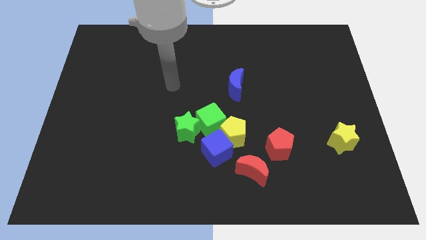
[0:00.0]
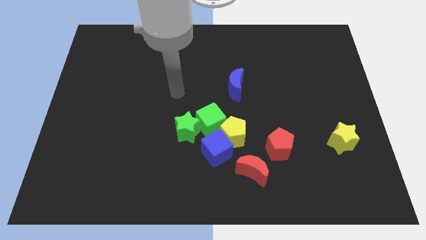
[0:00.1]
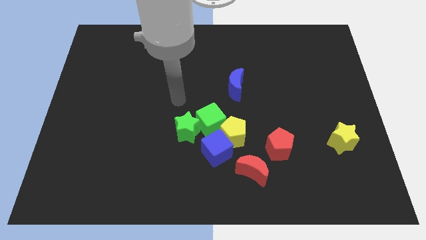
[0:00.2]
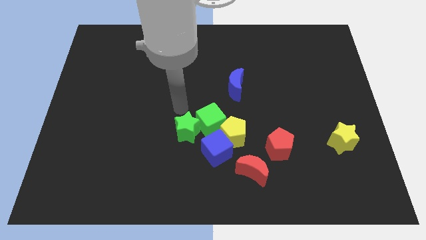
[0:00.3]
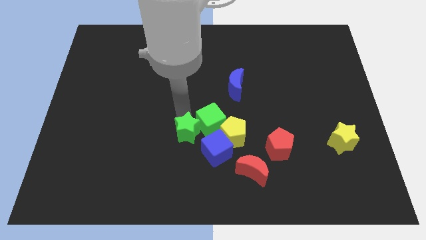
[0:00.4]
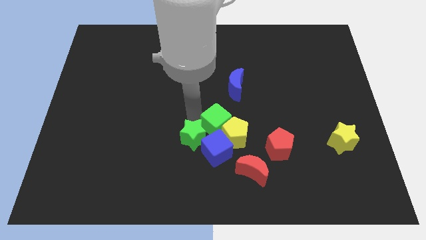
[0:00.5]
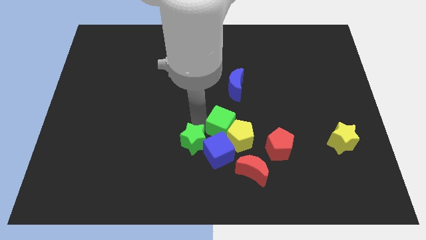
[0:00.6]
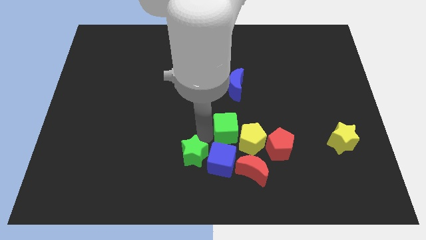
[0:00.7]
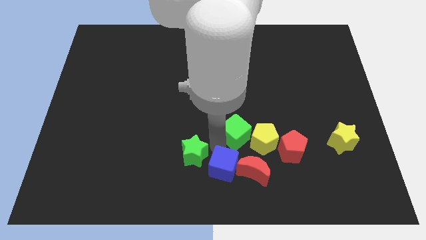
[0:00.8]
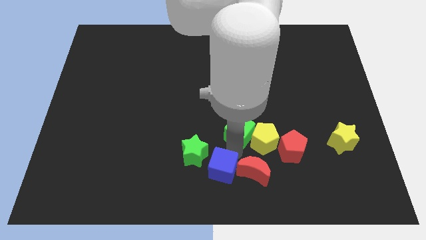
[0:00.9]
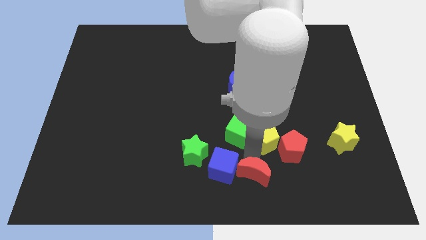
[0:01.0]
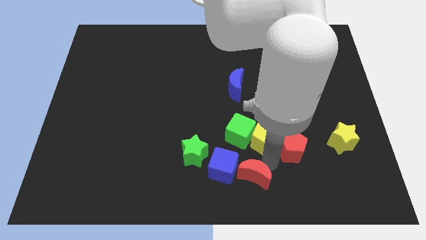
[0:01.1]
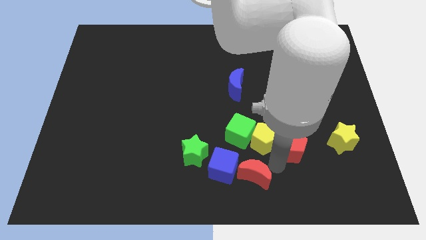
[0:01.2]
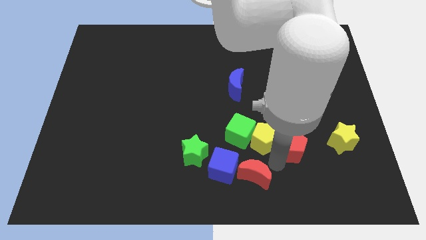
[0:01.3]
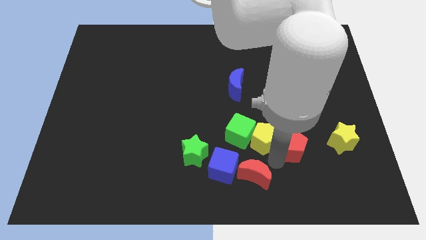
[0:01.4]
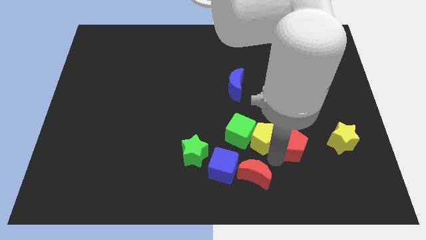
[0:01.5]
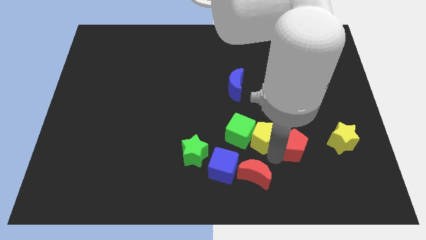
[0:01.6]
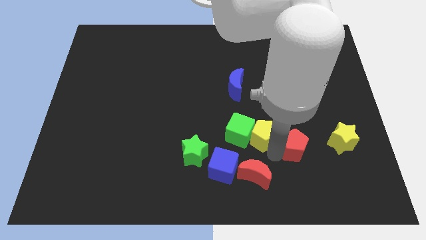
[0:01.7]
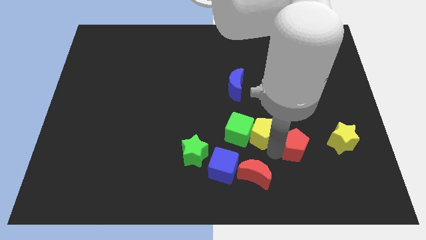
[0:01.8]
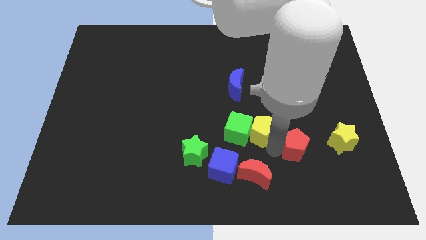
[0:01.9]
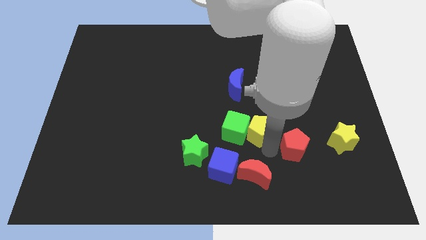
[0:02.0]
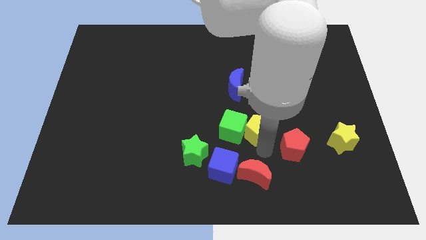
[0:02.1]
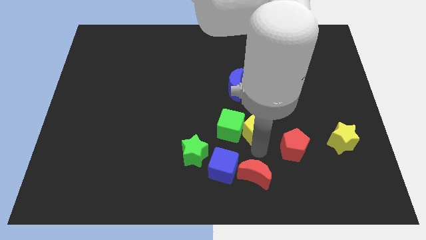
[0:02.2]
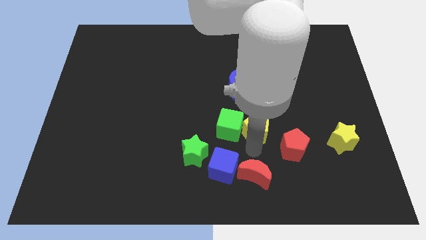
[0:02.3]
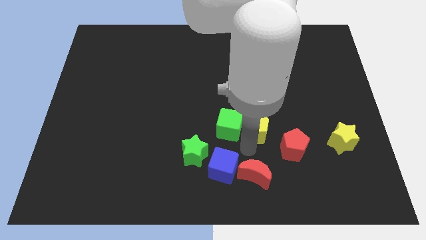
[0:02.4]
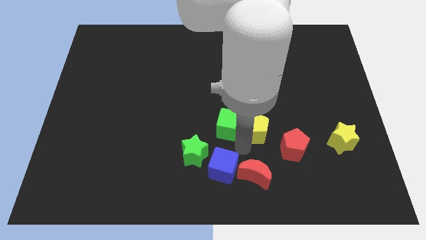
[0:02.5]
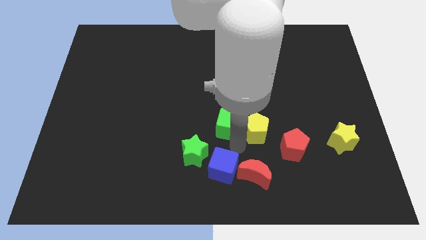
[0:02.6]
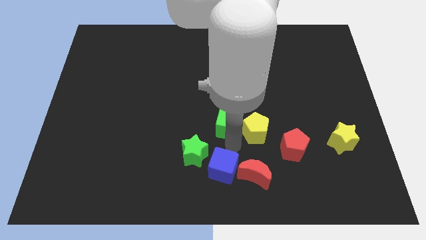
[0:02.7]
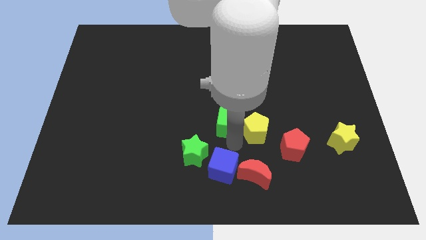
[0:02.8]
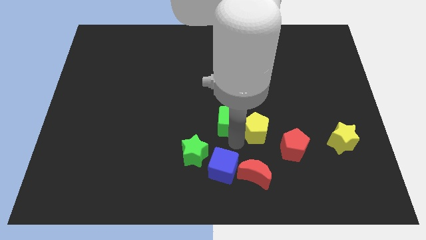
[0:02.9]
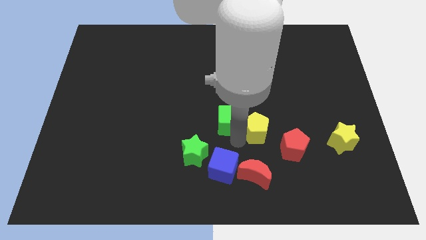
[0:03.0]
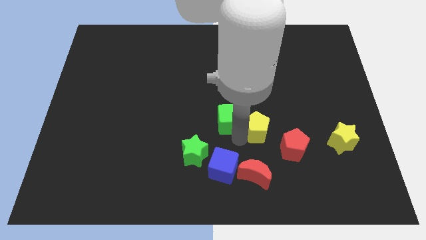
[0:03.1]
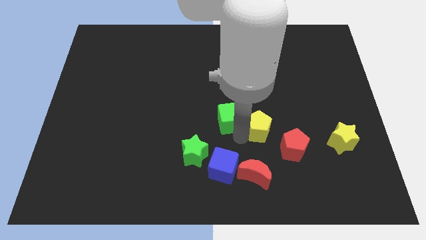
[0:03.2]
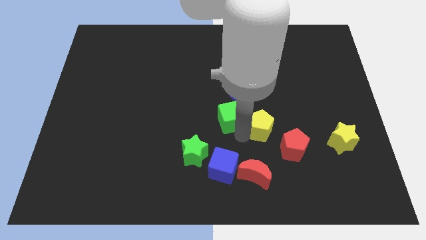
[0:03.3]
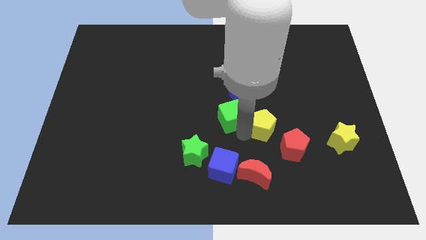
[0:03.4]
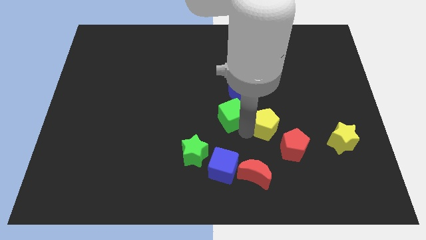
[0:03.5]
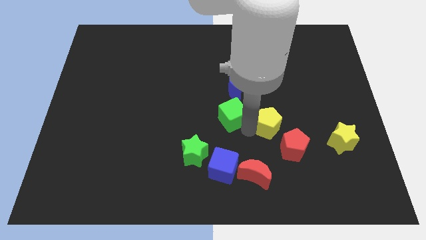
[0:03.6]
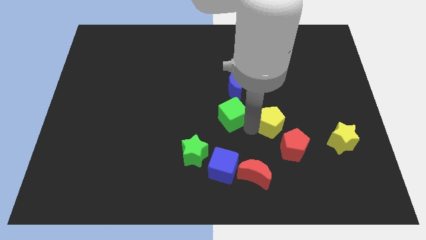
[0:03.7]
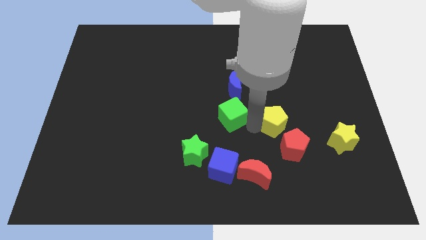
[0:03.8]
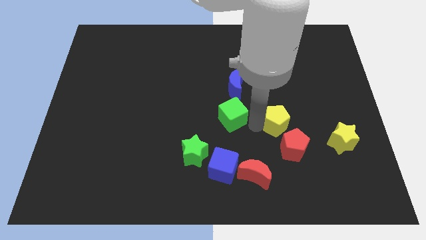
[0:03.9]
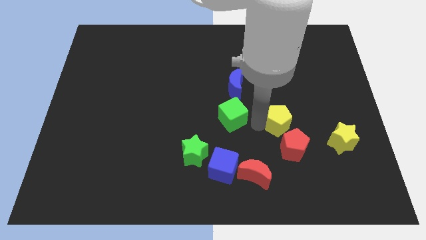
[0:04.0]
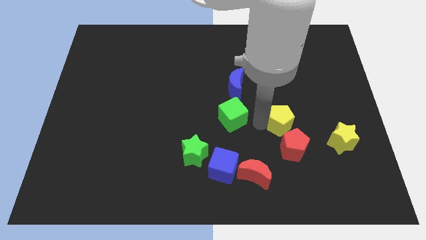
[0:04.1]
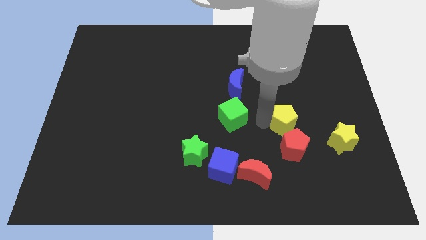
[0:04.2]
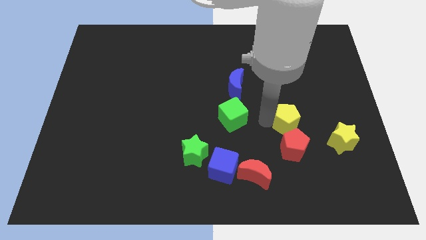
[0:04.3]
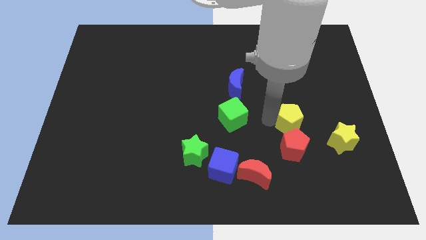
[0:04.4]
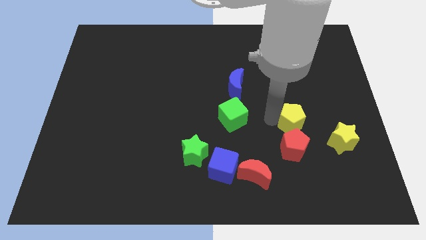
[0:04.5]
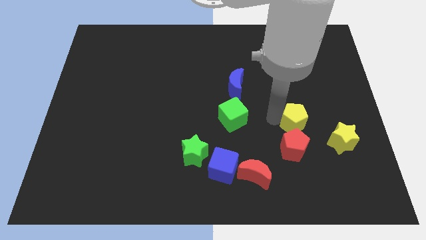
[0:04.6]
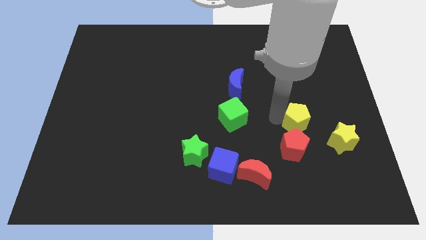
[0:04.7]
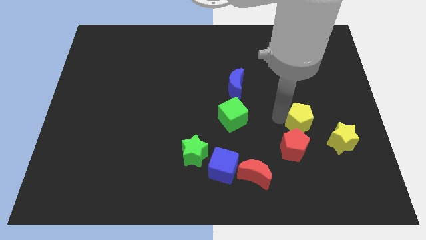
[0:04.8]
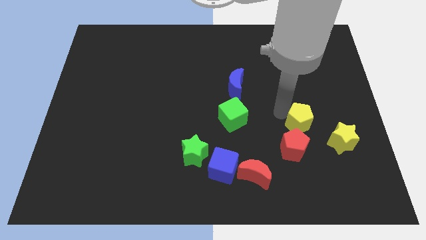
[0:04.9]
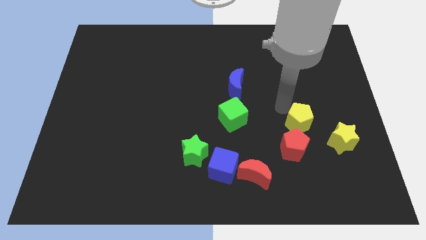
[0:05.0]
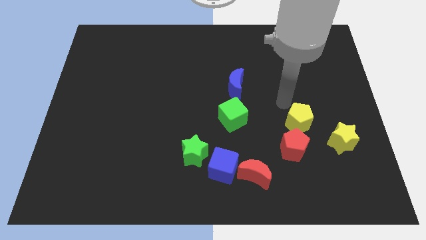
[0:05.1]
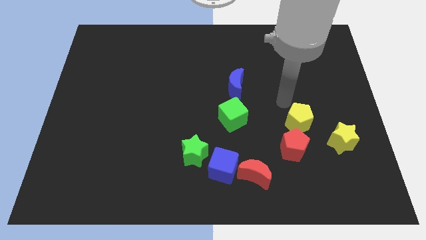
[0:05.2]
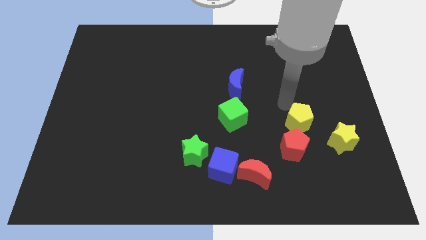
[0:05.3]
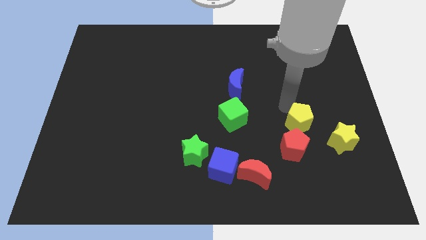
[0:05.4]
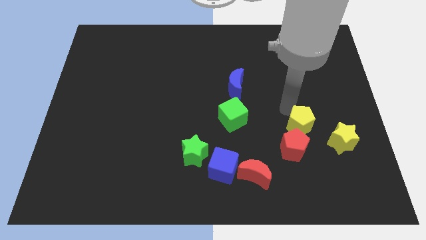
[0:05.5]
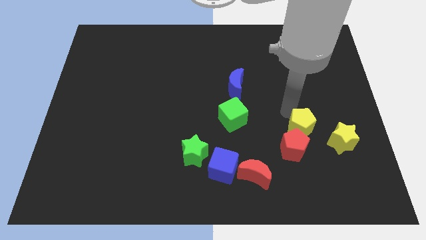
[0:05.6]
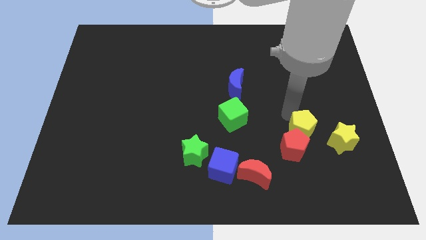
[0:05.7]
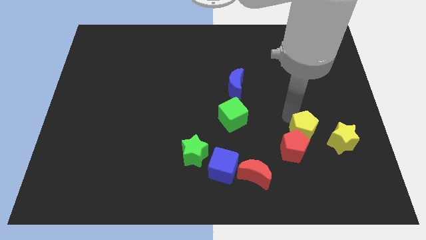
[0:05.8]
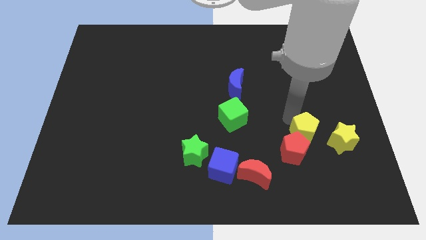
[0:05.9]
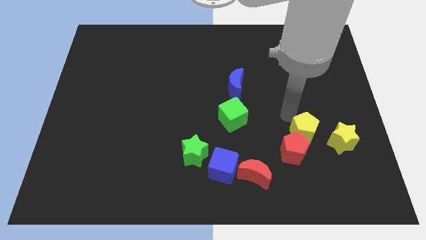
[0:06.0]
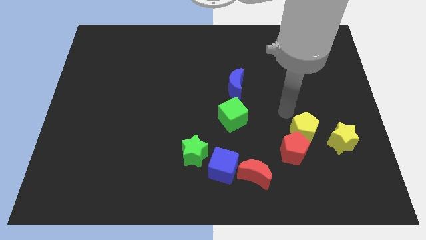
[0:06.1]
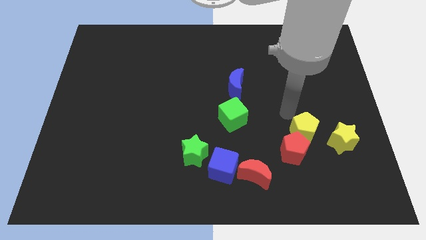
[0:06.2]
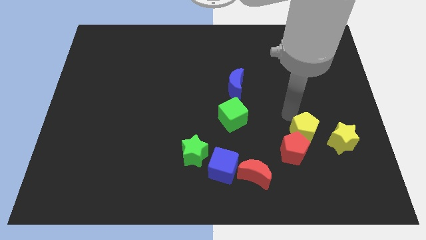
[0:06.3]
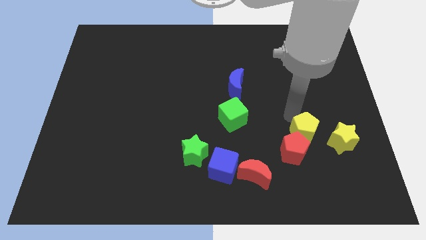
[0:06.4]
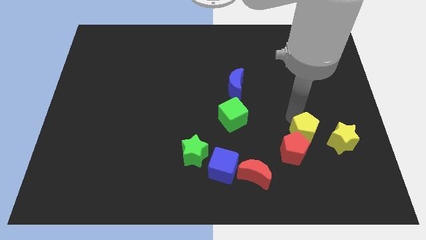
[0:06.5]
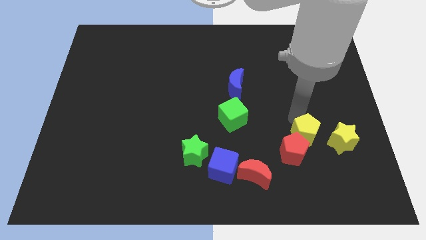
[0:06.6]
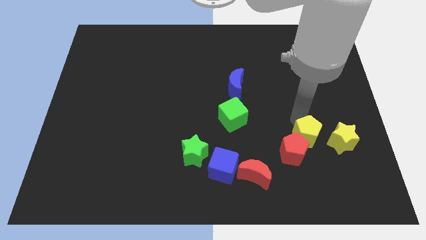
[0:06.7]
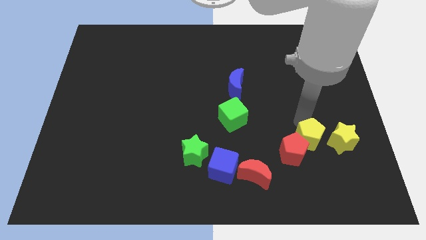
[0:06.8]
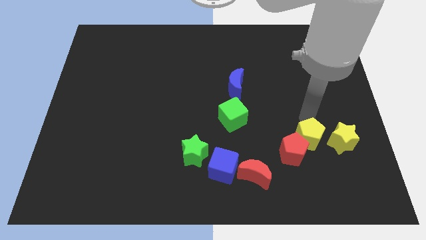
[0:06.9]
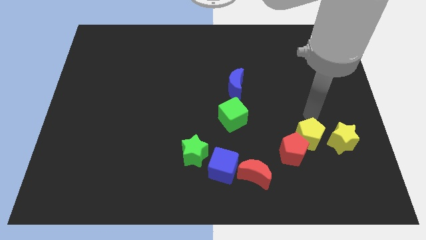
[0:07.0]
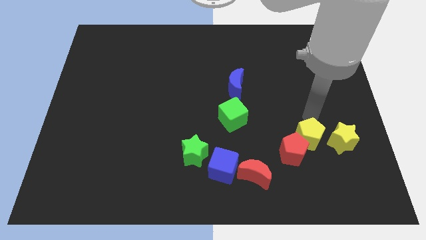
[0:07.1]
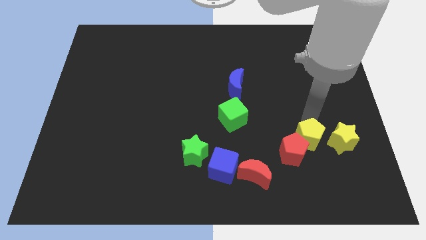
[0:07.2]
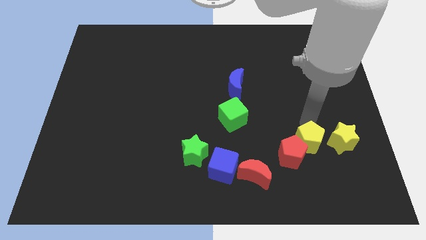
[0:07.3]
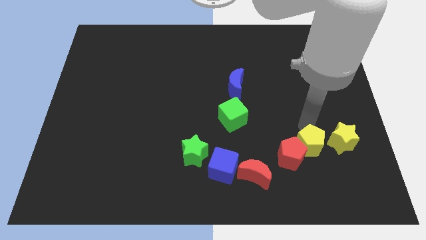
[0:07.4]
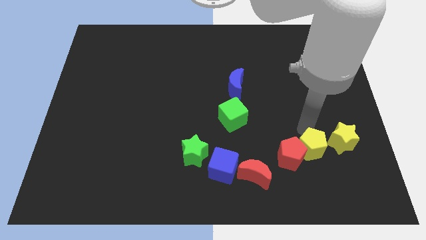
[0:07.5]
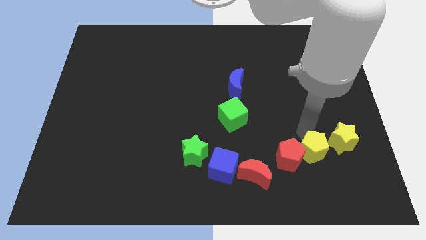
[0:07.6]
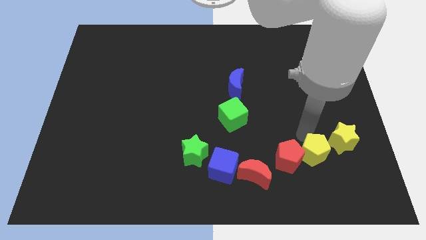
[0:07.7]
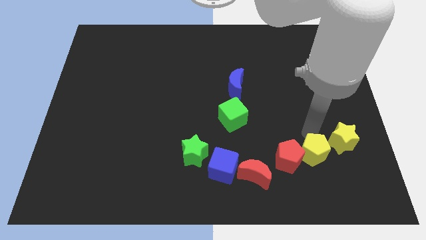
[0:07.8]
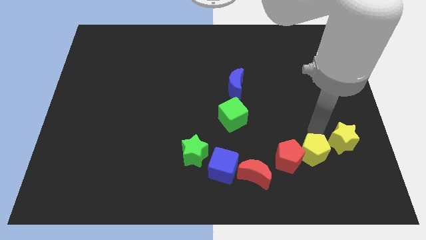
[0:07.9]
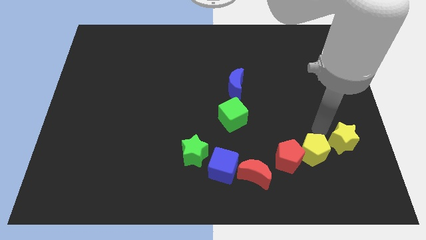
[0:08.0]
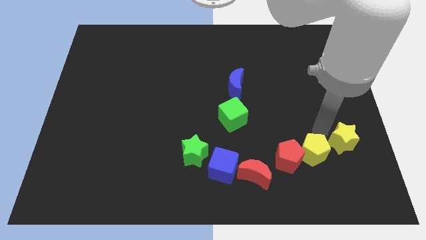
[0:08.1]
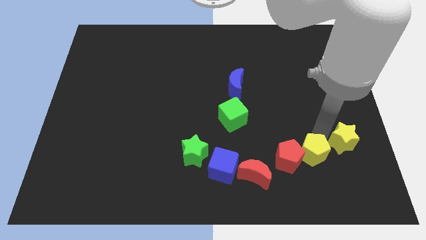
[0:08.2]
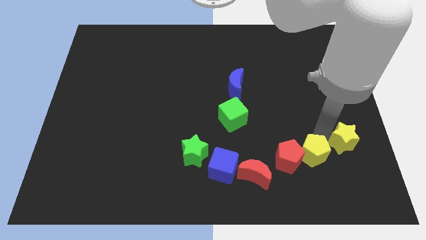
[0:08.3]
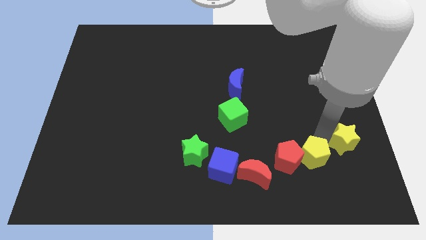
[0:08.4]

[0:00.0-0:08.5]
move the yellow pentagon to the right of the red moon
